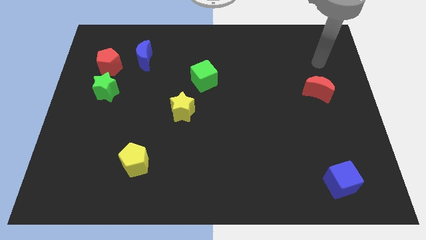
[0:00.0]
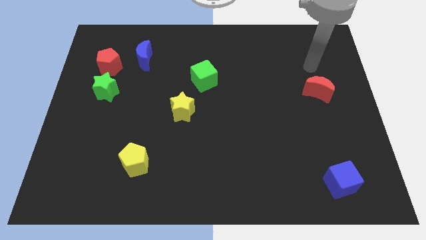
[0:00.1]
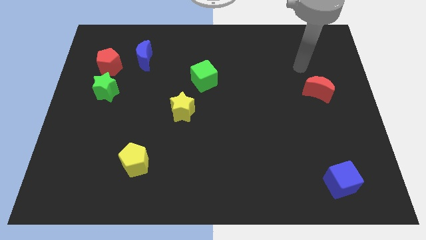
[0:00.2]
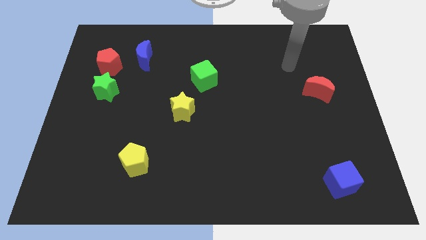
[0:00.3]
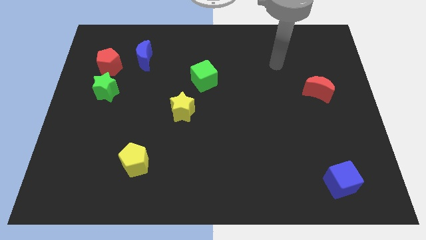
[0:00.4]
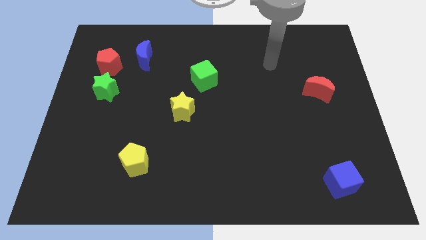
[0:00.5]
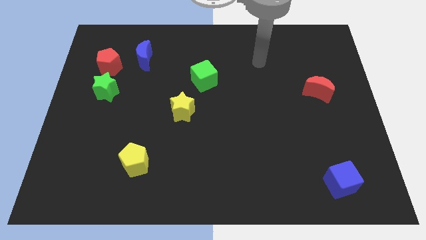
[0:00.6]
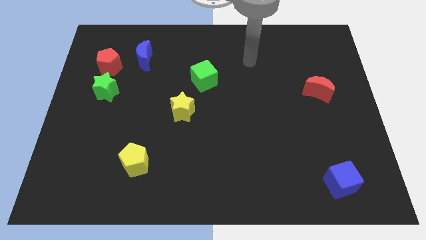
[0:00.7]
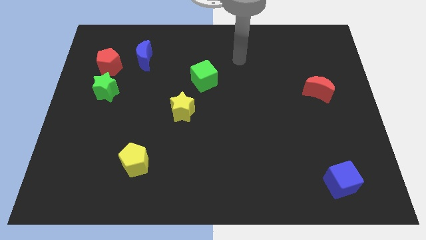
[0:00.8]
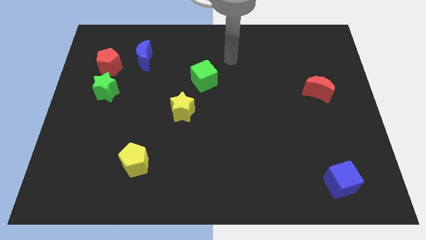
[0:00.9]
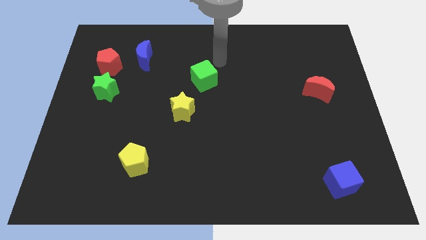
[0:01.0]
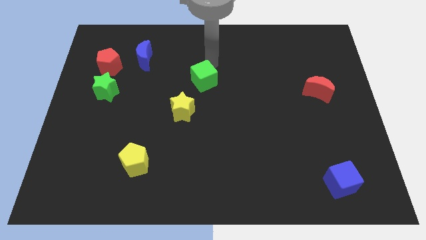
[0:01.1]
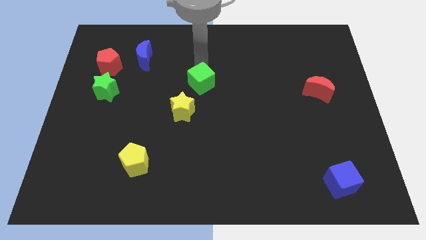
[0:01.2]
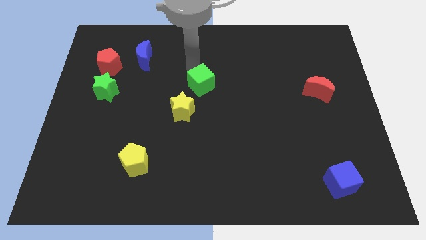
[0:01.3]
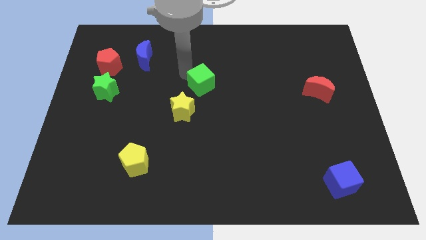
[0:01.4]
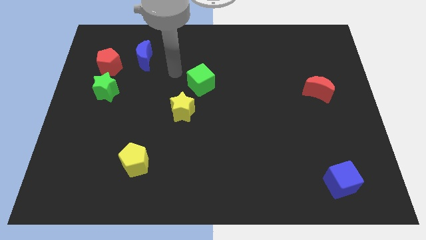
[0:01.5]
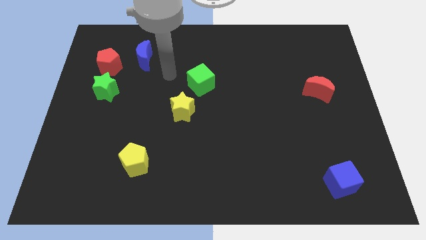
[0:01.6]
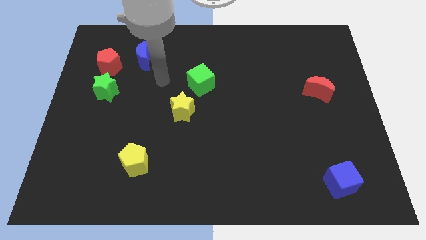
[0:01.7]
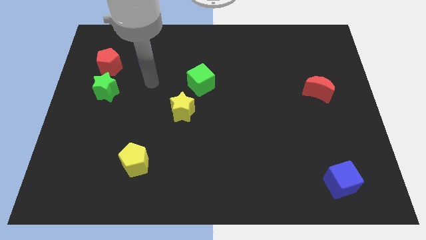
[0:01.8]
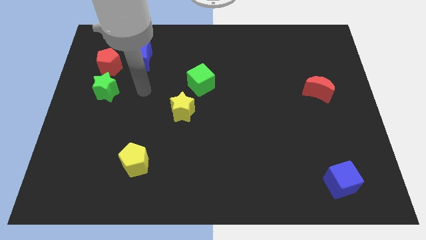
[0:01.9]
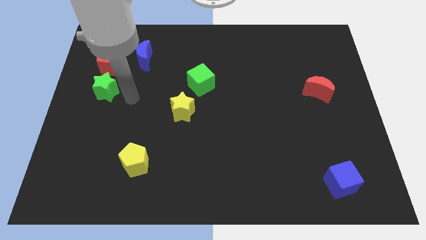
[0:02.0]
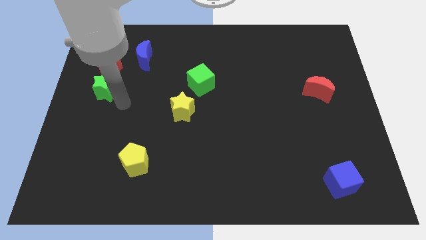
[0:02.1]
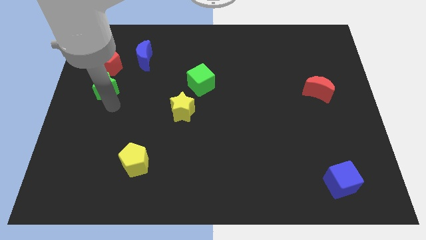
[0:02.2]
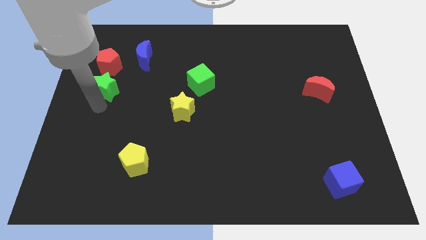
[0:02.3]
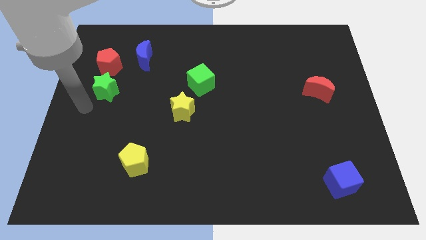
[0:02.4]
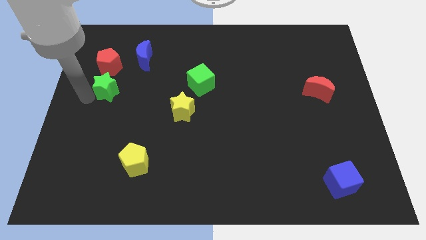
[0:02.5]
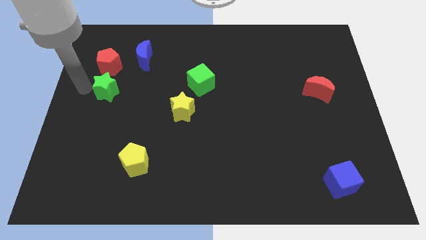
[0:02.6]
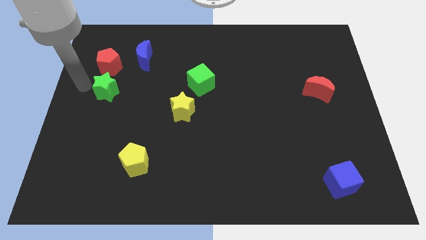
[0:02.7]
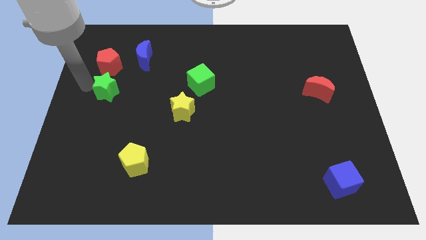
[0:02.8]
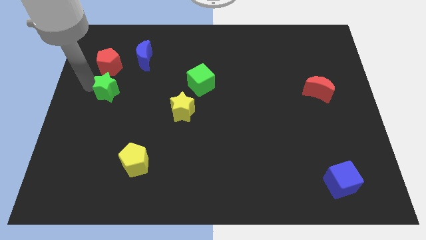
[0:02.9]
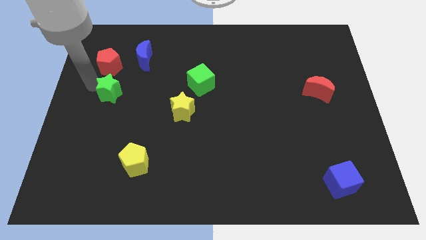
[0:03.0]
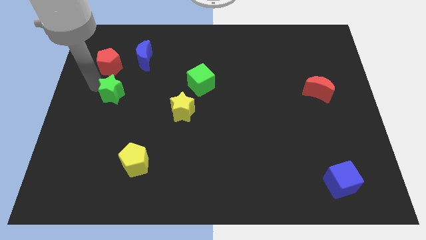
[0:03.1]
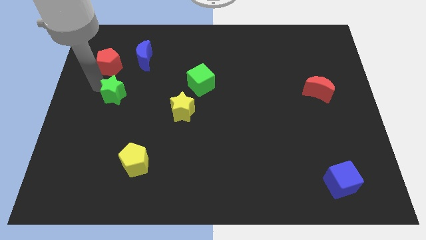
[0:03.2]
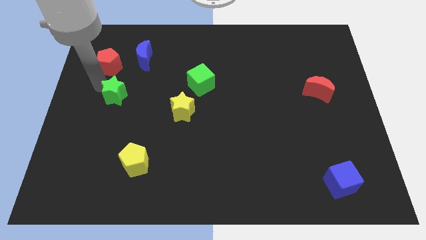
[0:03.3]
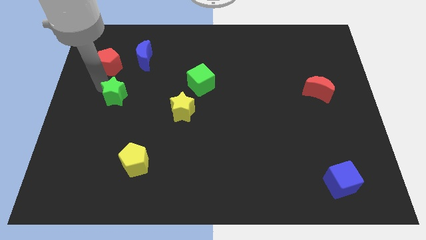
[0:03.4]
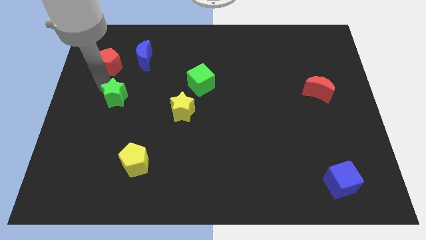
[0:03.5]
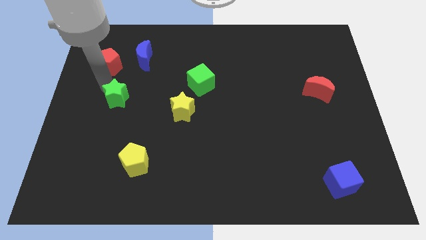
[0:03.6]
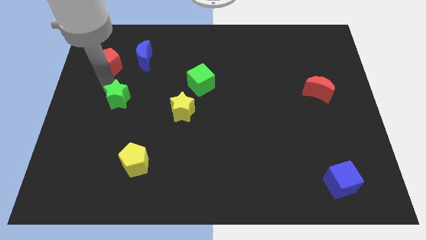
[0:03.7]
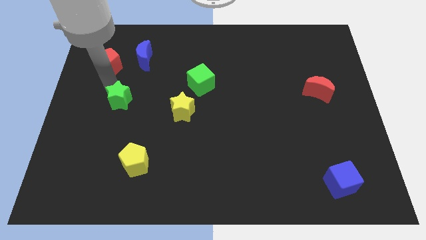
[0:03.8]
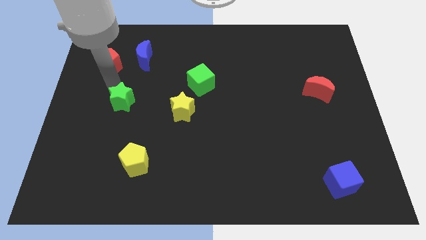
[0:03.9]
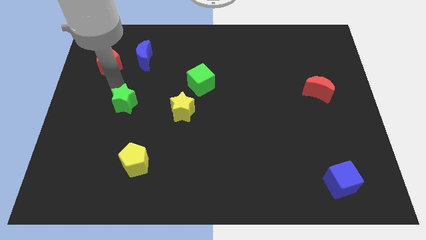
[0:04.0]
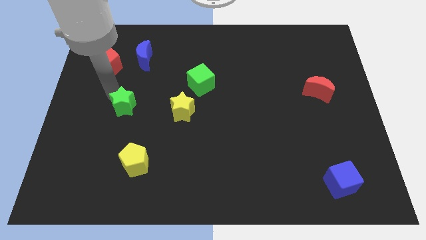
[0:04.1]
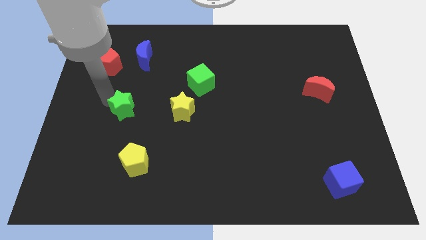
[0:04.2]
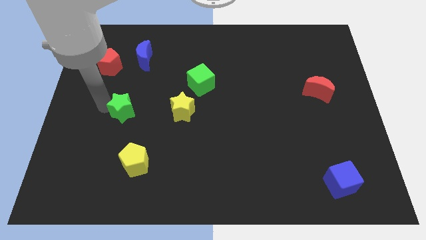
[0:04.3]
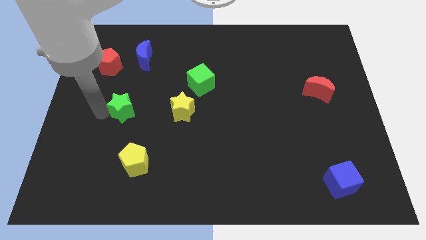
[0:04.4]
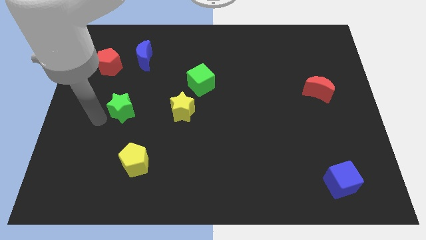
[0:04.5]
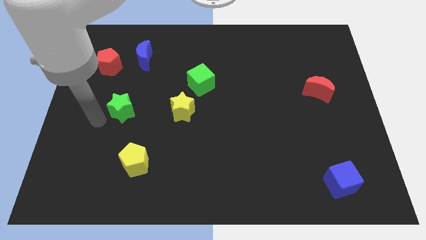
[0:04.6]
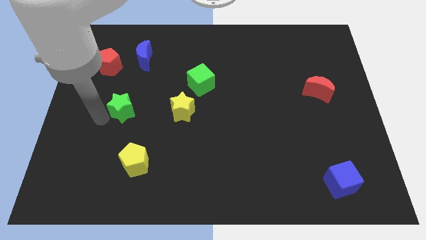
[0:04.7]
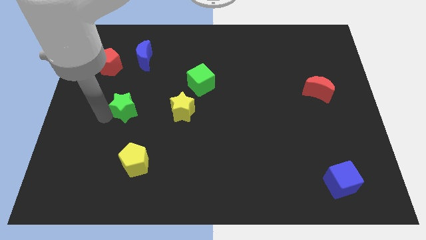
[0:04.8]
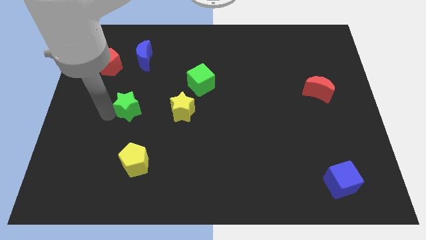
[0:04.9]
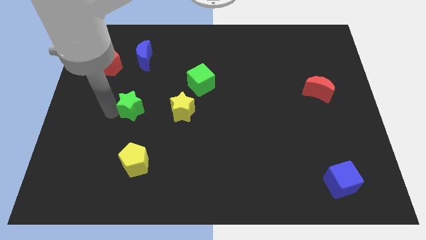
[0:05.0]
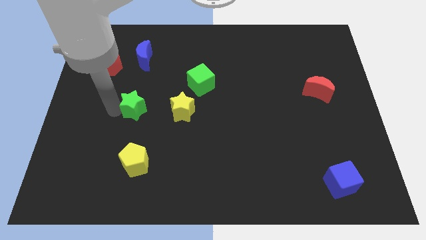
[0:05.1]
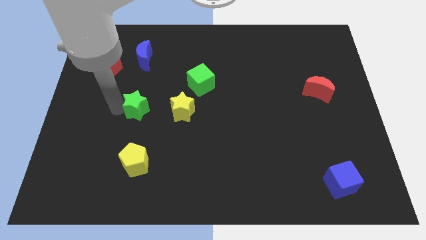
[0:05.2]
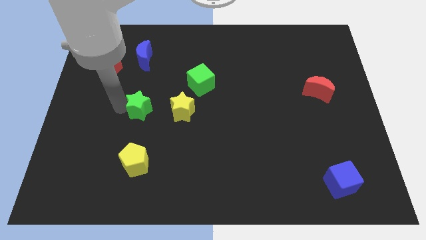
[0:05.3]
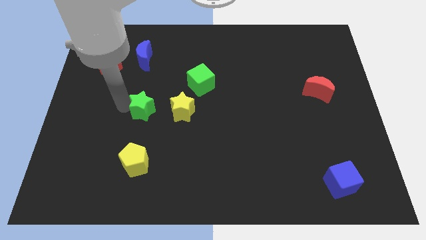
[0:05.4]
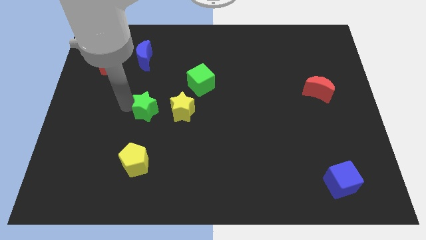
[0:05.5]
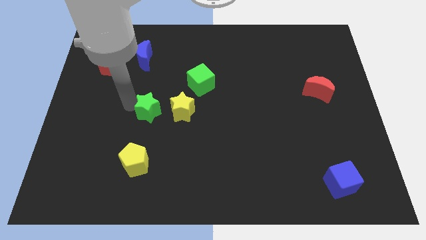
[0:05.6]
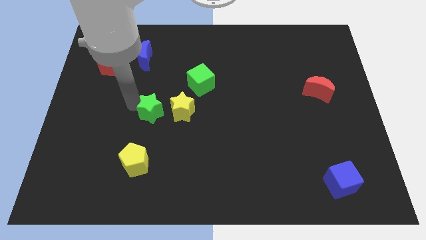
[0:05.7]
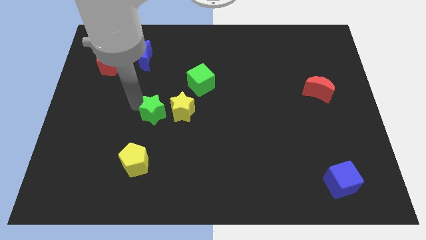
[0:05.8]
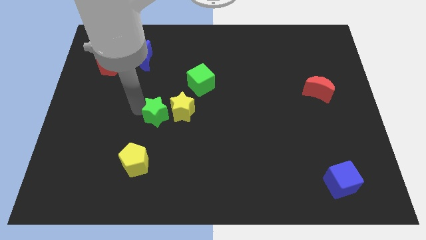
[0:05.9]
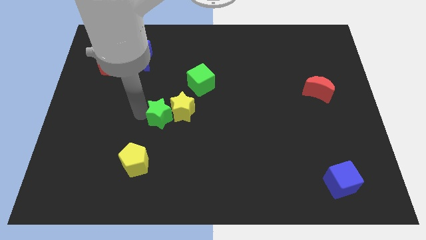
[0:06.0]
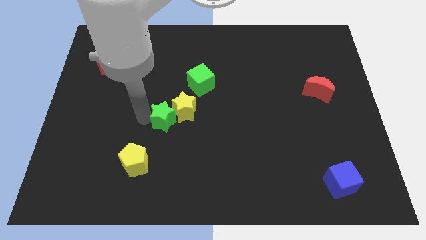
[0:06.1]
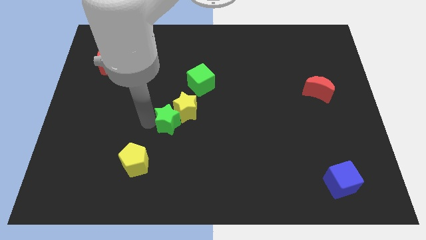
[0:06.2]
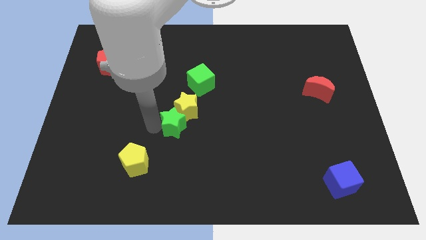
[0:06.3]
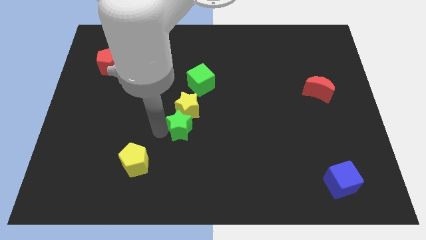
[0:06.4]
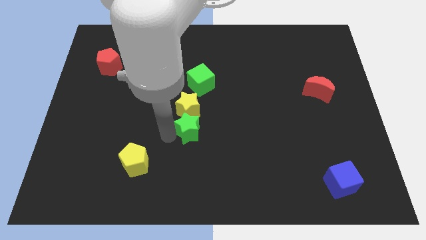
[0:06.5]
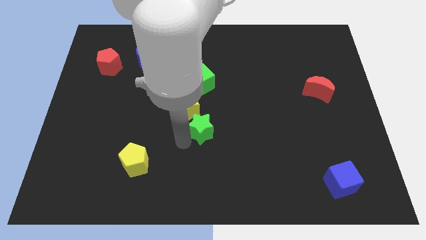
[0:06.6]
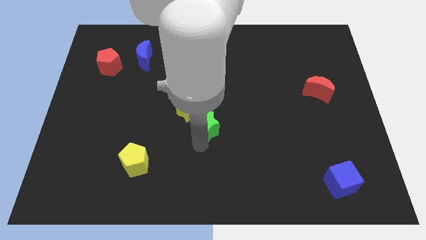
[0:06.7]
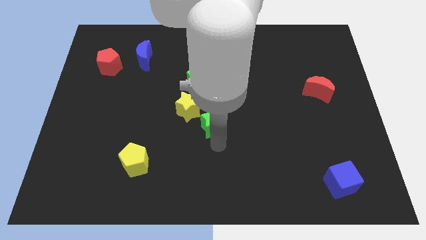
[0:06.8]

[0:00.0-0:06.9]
move the green star right

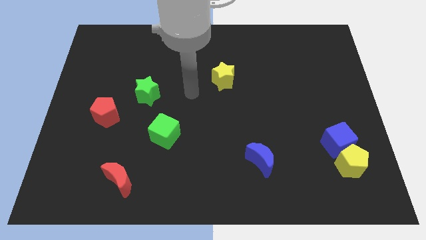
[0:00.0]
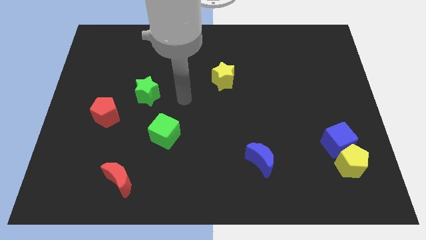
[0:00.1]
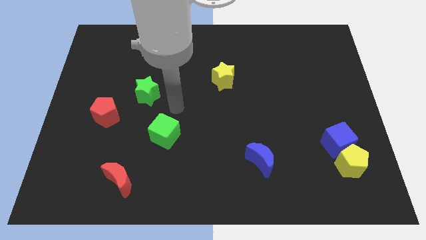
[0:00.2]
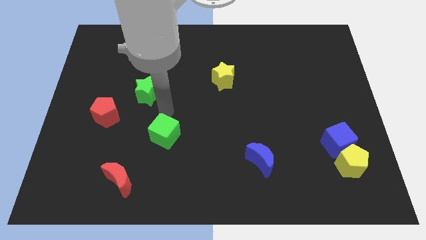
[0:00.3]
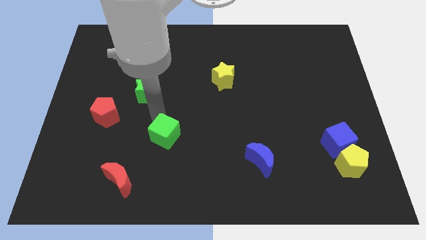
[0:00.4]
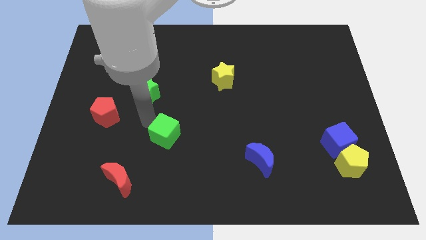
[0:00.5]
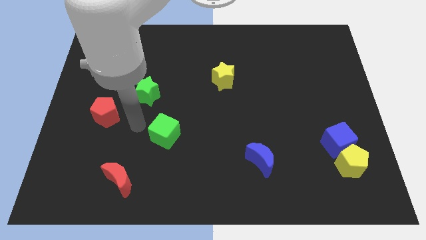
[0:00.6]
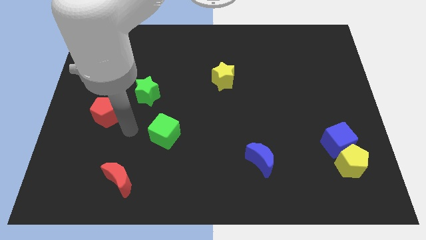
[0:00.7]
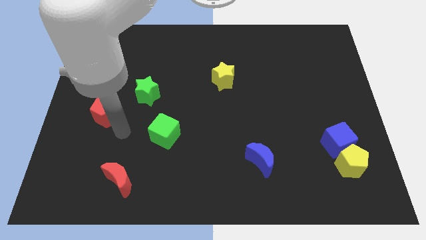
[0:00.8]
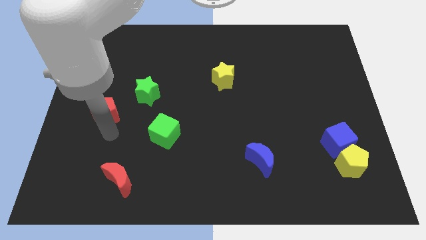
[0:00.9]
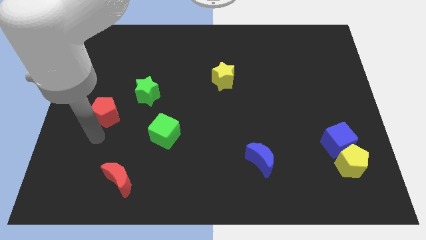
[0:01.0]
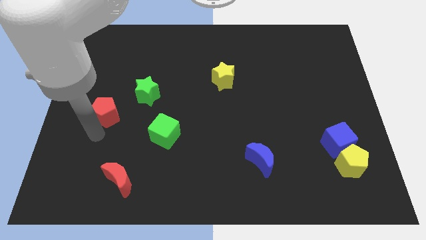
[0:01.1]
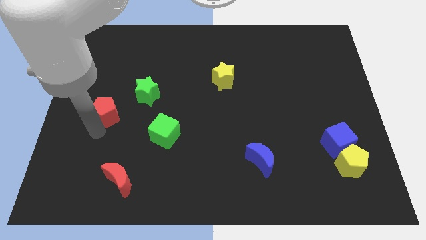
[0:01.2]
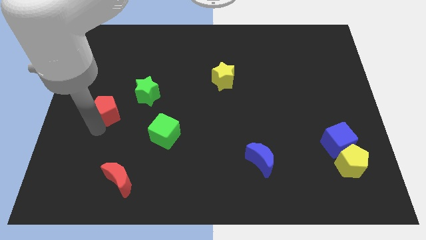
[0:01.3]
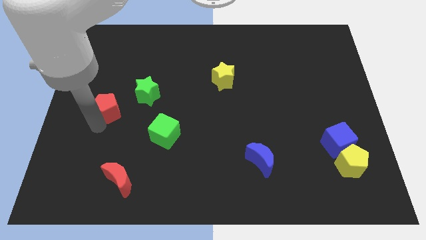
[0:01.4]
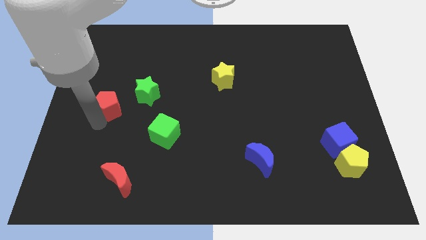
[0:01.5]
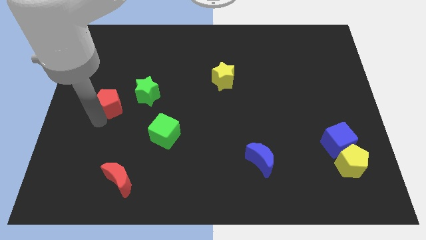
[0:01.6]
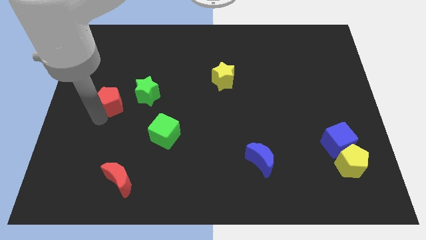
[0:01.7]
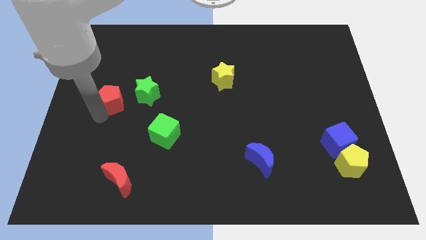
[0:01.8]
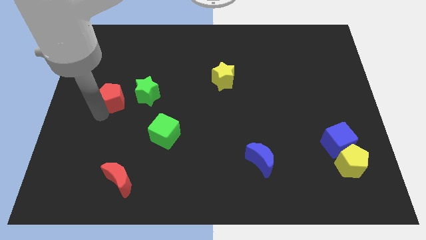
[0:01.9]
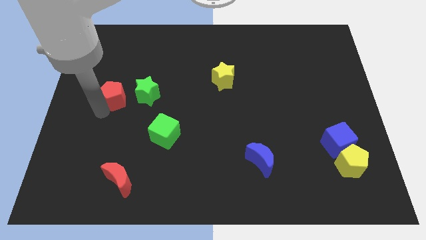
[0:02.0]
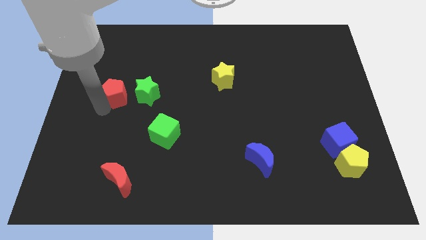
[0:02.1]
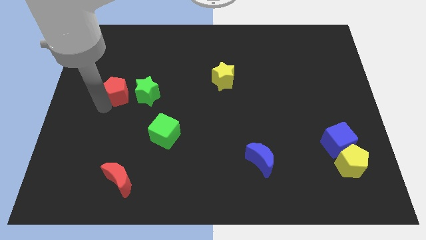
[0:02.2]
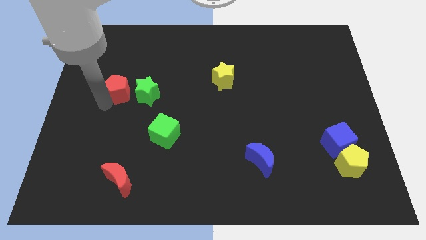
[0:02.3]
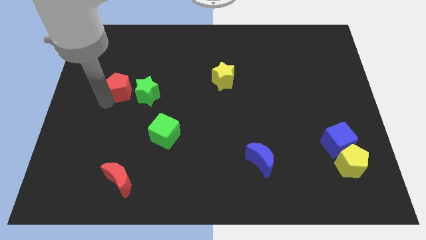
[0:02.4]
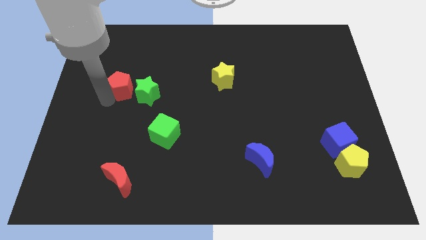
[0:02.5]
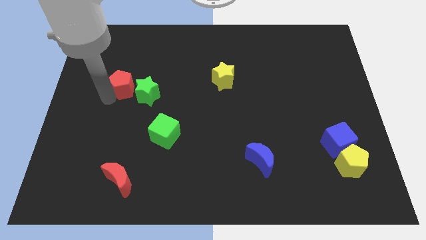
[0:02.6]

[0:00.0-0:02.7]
move the red pentagon slightly up and right diagonally
